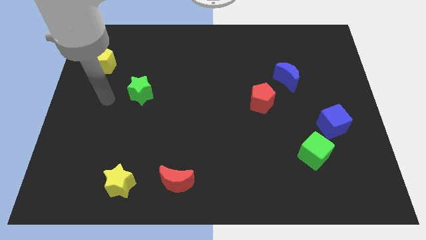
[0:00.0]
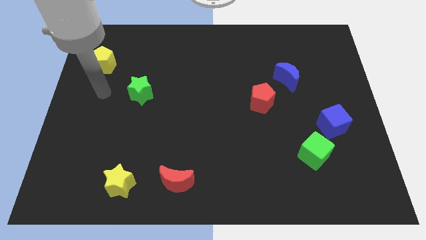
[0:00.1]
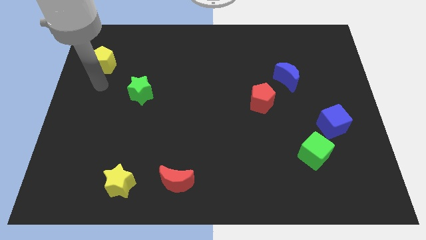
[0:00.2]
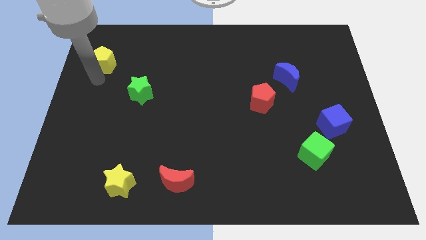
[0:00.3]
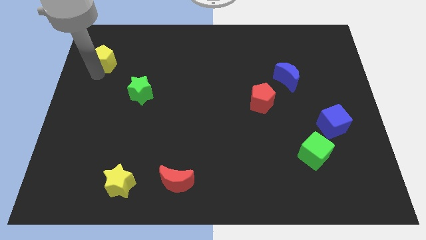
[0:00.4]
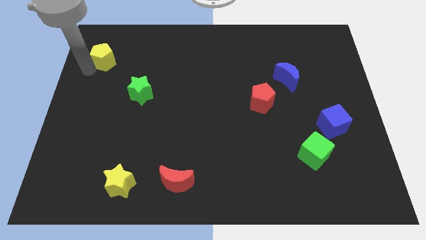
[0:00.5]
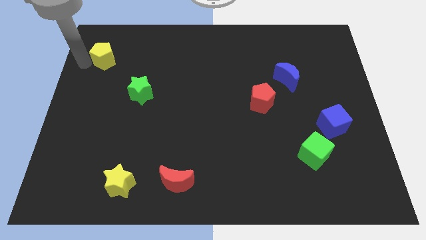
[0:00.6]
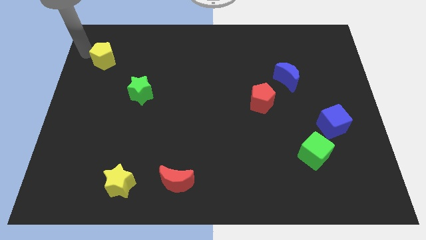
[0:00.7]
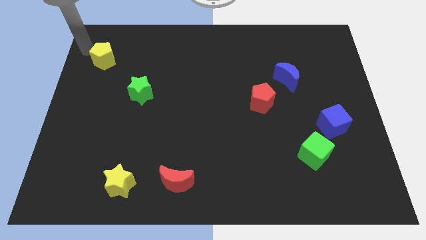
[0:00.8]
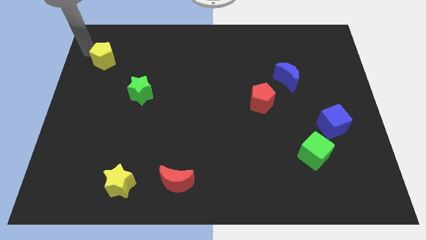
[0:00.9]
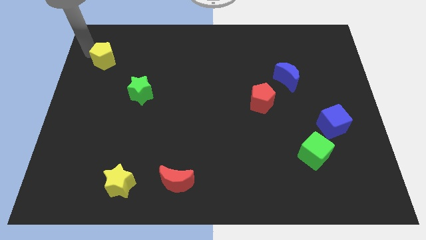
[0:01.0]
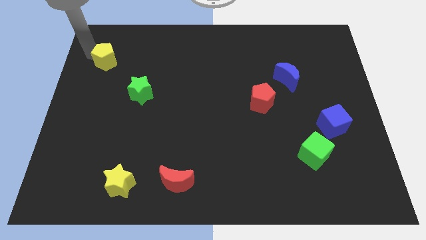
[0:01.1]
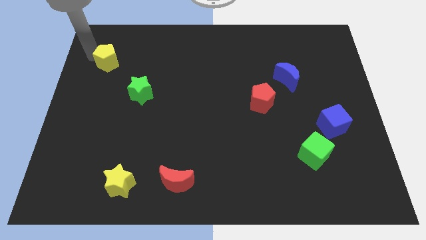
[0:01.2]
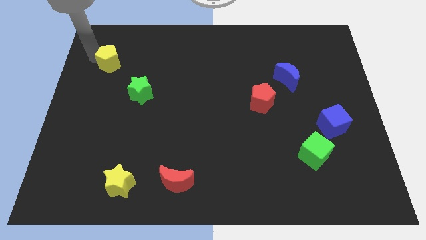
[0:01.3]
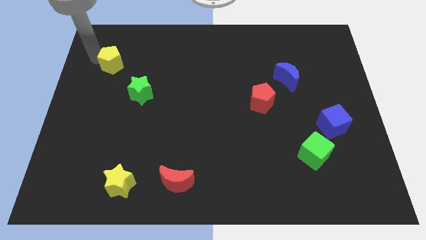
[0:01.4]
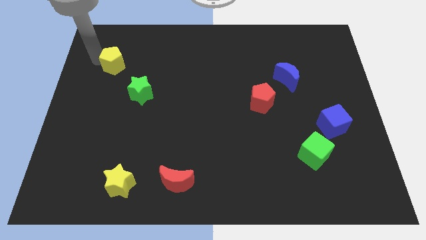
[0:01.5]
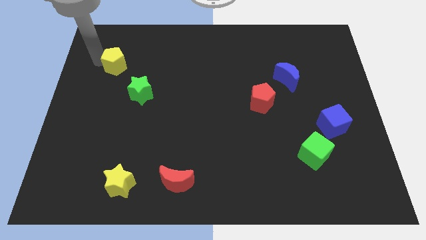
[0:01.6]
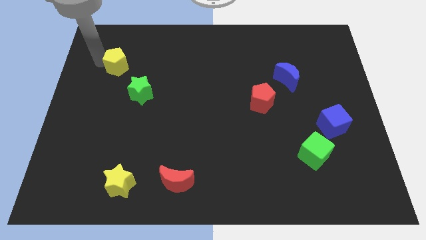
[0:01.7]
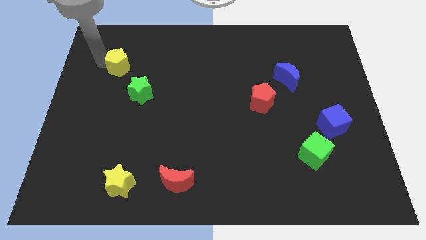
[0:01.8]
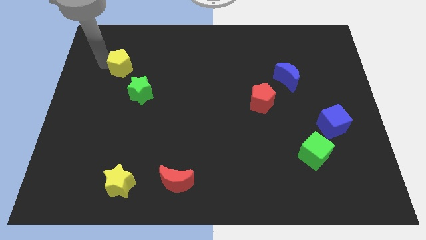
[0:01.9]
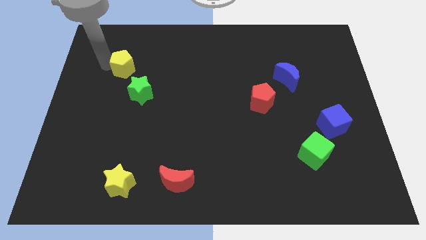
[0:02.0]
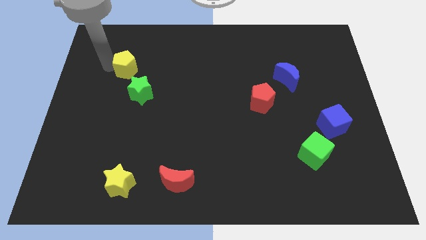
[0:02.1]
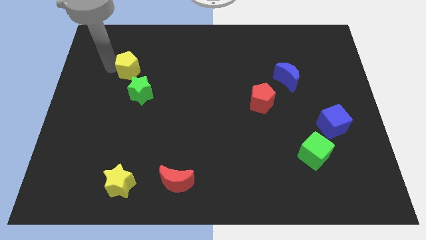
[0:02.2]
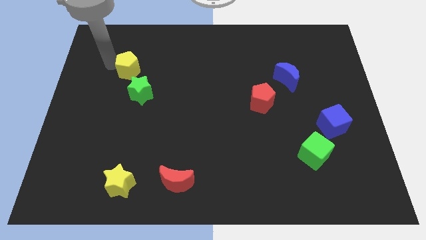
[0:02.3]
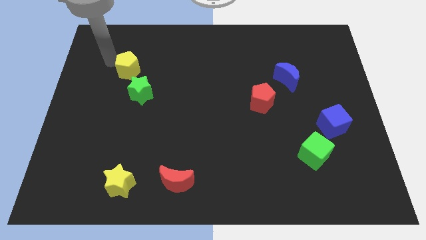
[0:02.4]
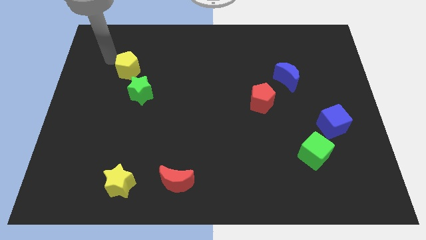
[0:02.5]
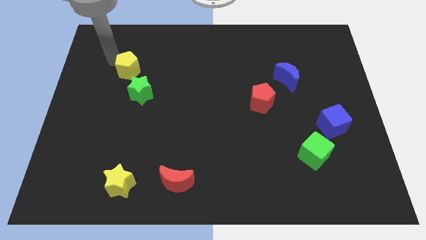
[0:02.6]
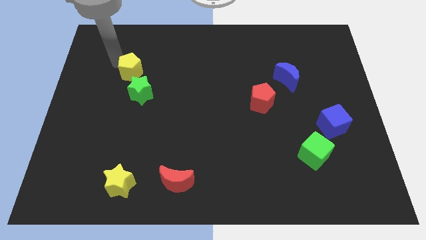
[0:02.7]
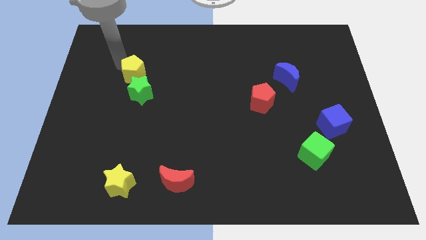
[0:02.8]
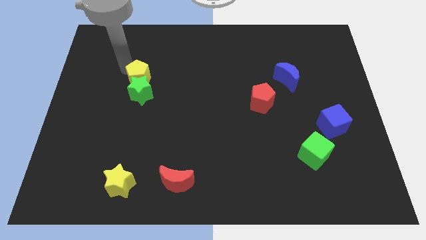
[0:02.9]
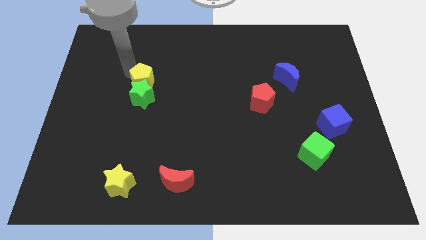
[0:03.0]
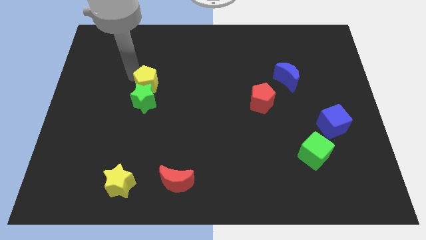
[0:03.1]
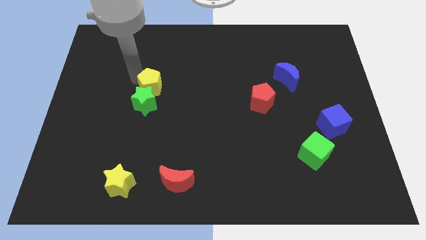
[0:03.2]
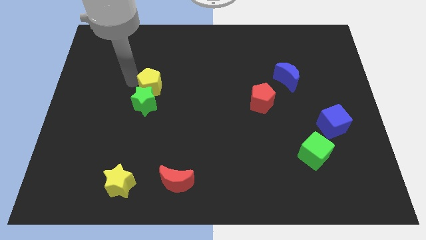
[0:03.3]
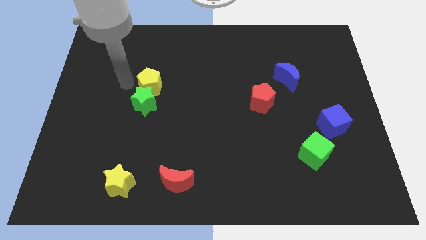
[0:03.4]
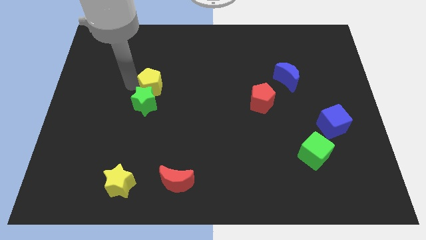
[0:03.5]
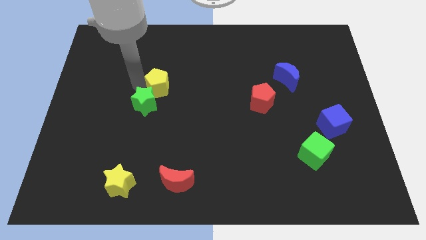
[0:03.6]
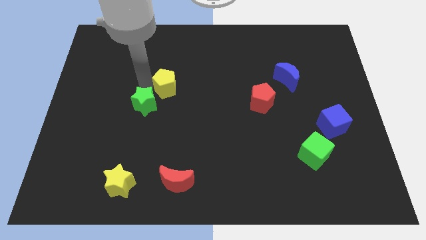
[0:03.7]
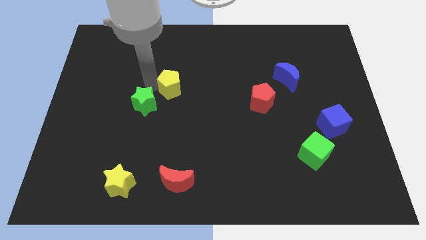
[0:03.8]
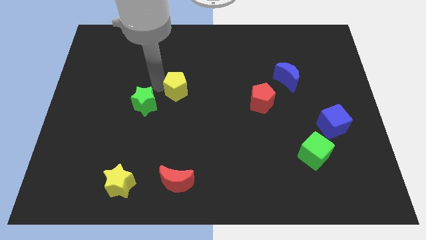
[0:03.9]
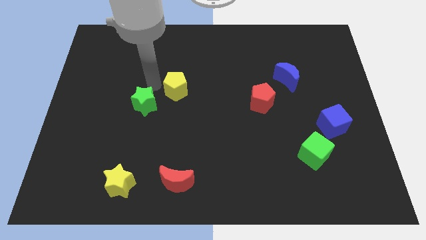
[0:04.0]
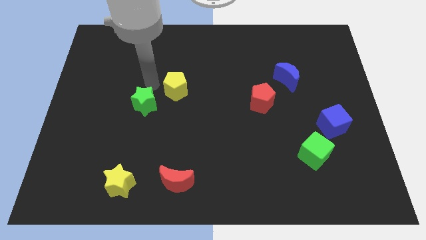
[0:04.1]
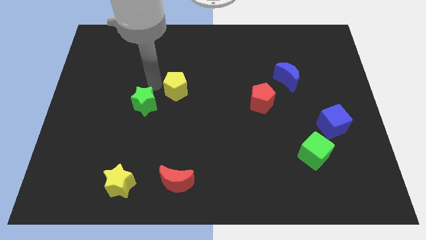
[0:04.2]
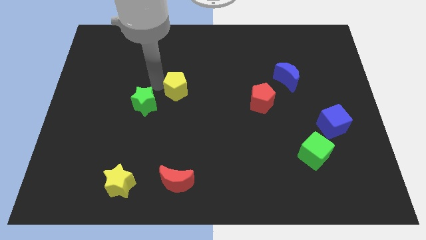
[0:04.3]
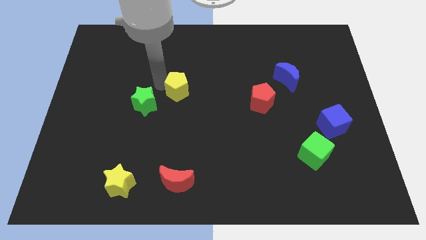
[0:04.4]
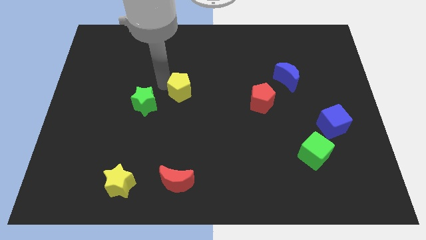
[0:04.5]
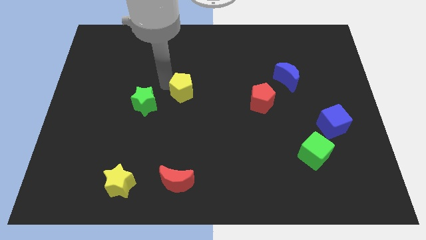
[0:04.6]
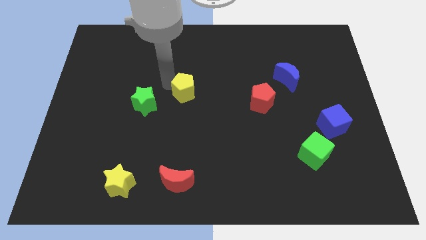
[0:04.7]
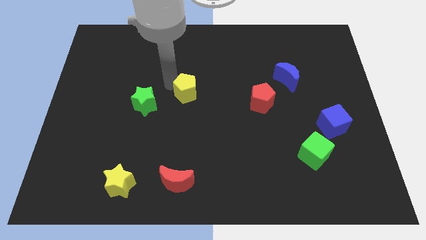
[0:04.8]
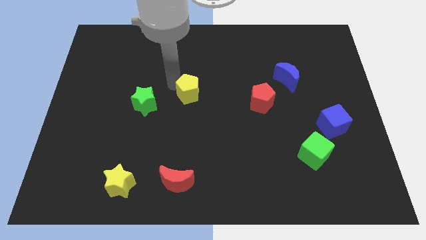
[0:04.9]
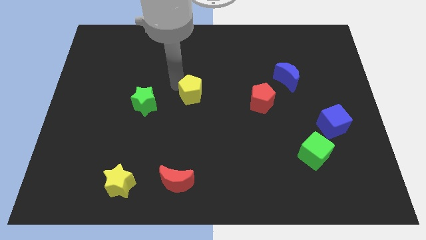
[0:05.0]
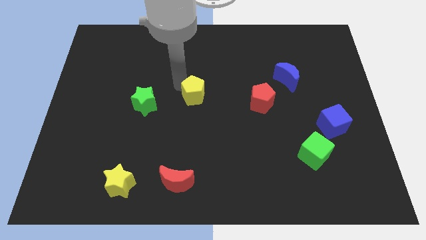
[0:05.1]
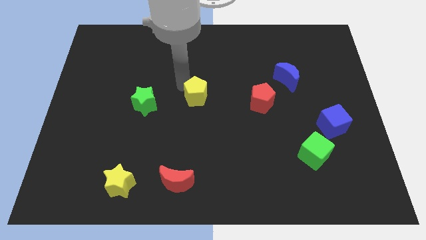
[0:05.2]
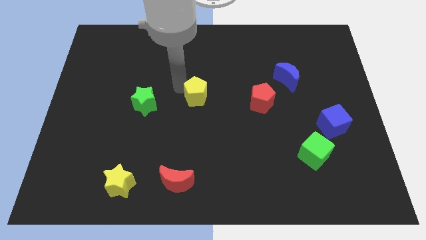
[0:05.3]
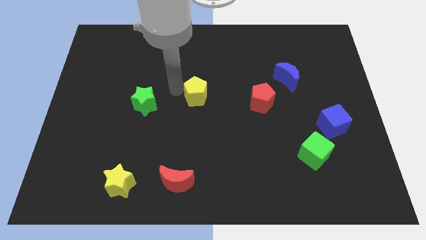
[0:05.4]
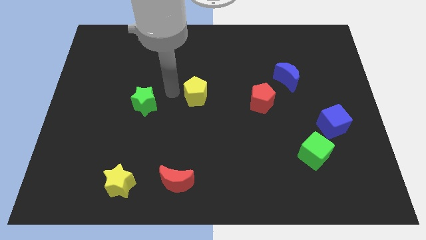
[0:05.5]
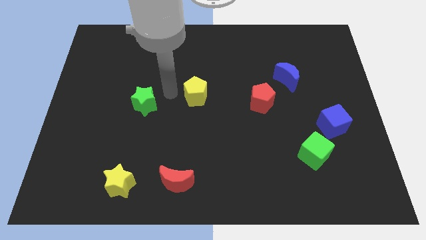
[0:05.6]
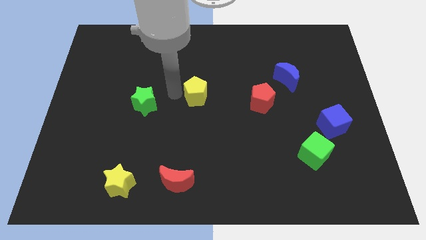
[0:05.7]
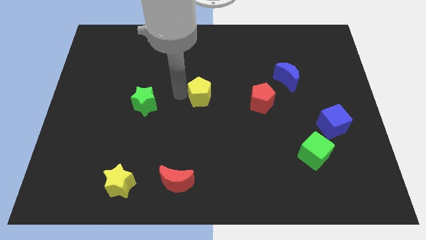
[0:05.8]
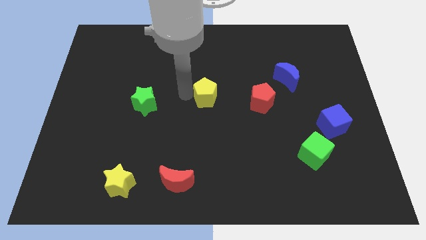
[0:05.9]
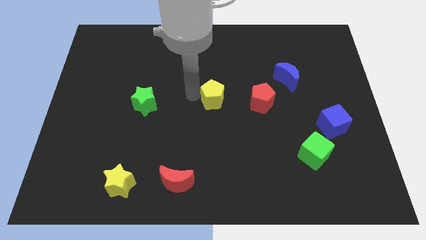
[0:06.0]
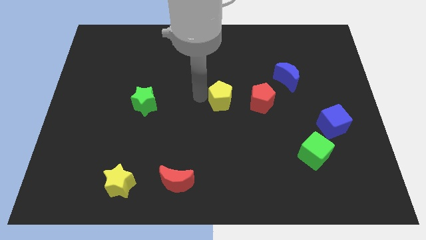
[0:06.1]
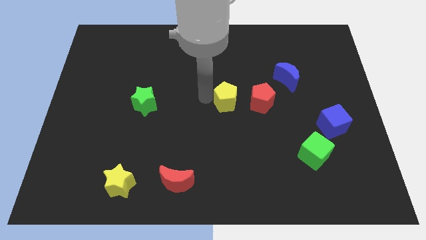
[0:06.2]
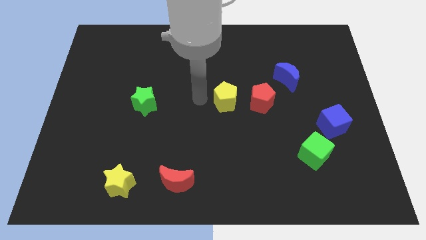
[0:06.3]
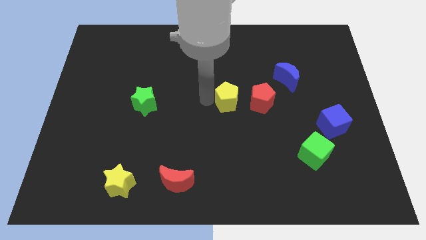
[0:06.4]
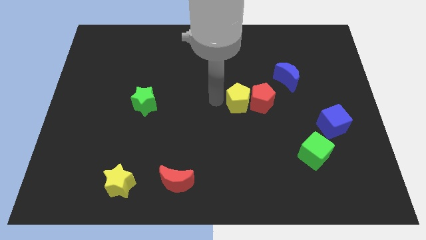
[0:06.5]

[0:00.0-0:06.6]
put the yellow pentagon next to the red pentagon
